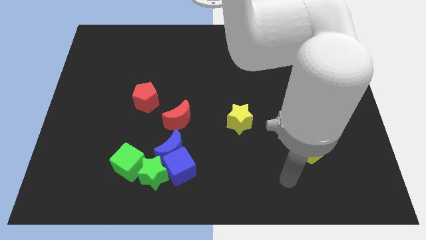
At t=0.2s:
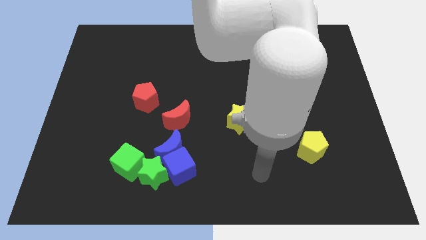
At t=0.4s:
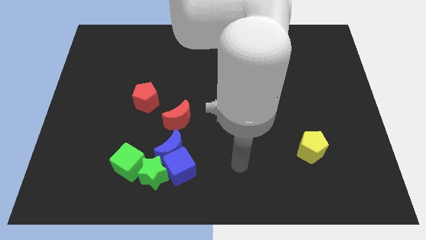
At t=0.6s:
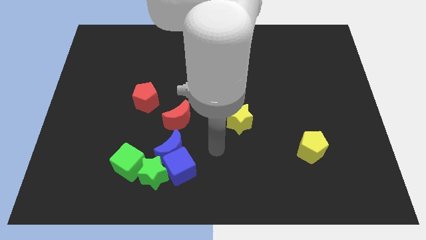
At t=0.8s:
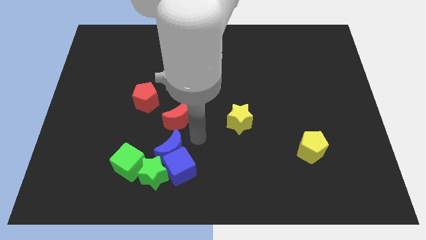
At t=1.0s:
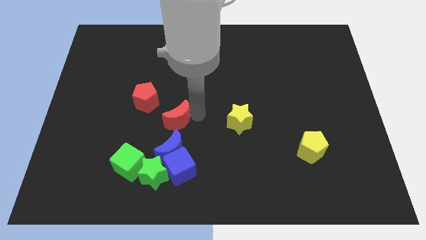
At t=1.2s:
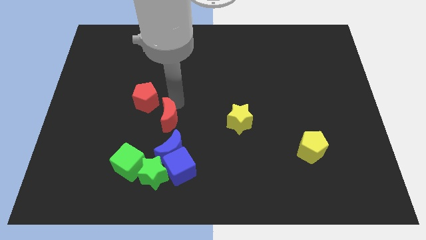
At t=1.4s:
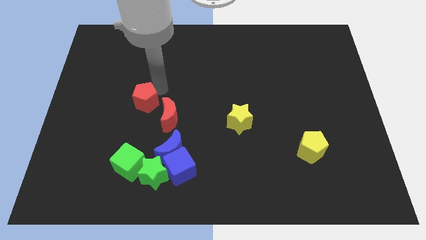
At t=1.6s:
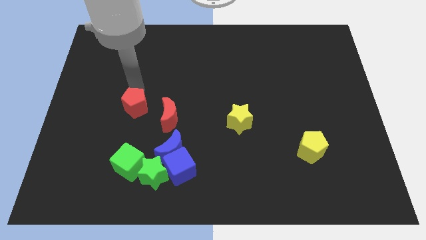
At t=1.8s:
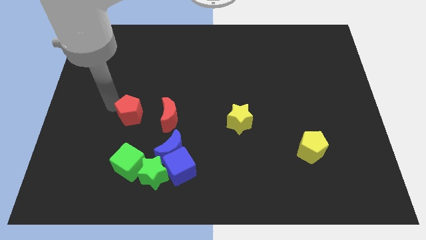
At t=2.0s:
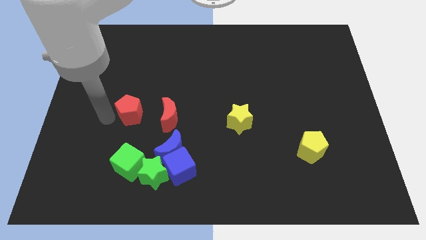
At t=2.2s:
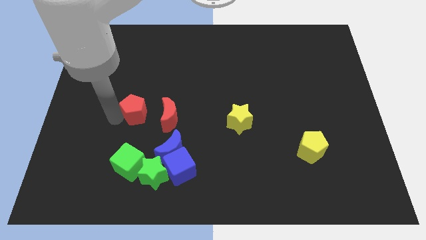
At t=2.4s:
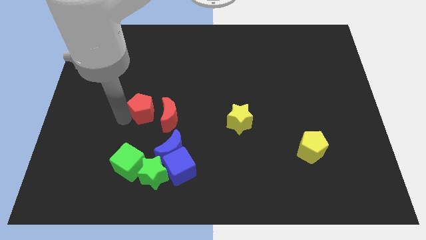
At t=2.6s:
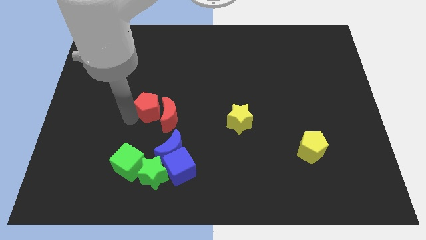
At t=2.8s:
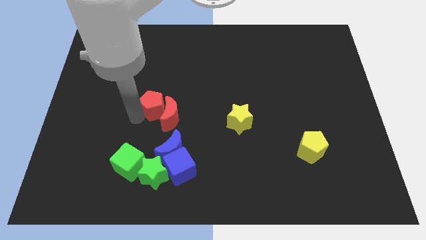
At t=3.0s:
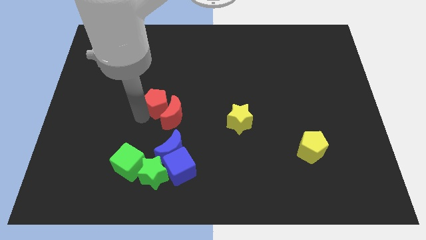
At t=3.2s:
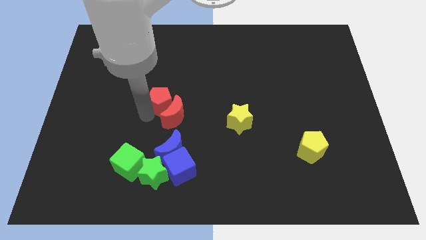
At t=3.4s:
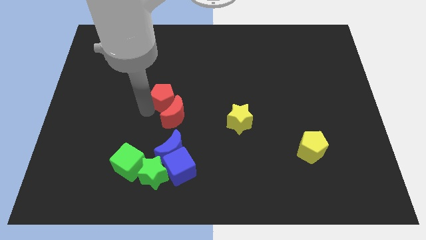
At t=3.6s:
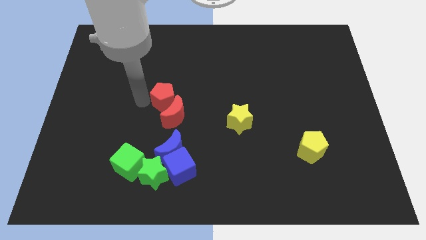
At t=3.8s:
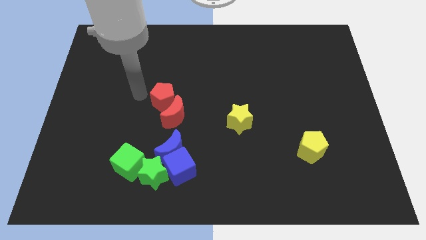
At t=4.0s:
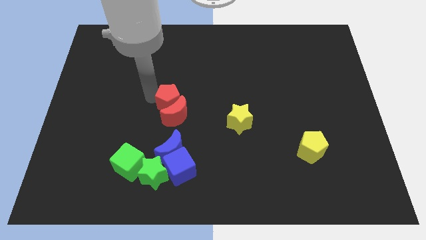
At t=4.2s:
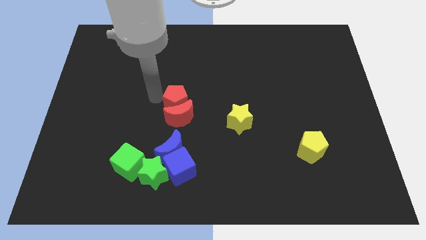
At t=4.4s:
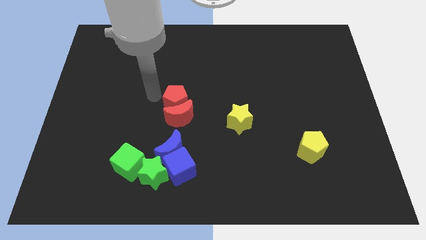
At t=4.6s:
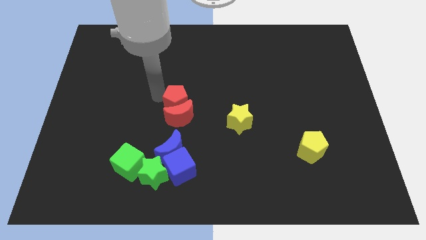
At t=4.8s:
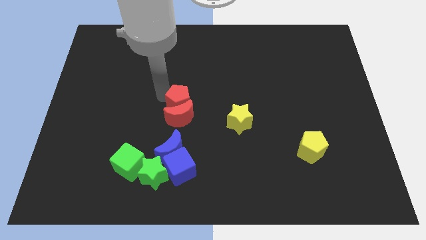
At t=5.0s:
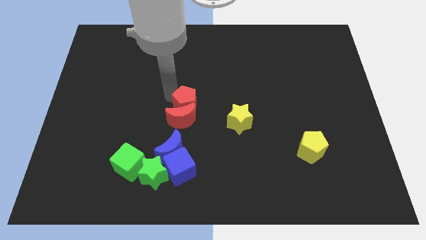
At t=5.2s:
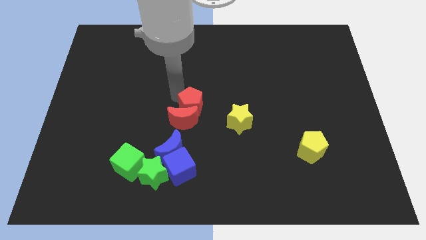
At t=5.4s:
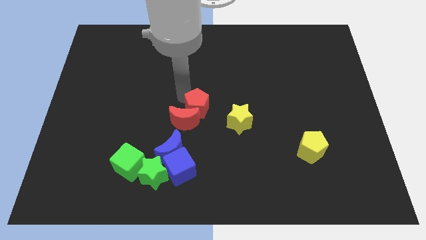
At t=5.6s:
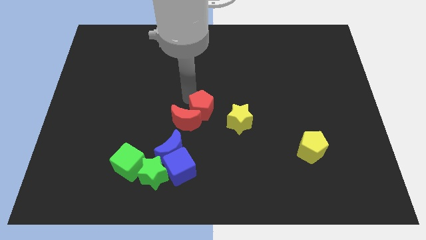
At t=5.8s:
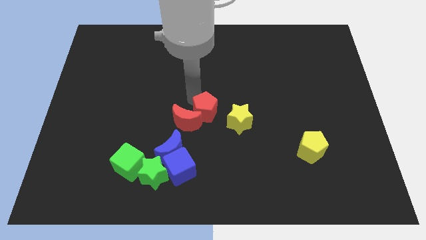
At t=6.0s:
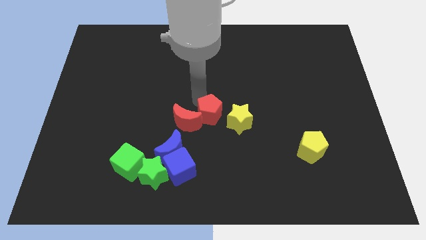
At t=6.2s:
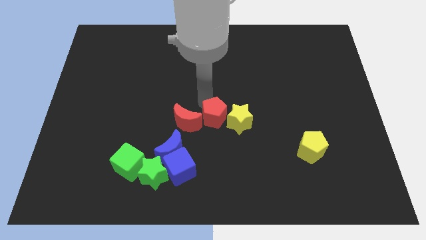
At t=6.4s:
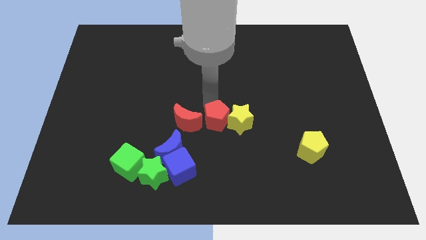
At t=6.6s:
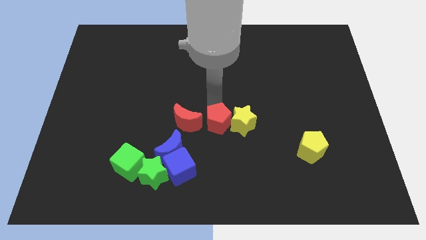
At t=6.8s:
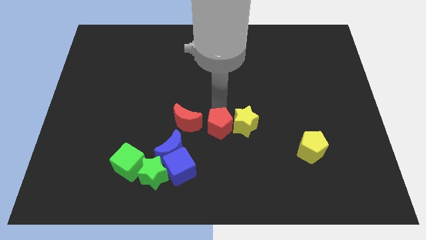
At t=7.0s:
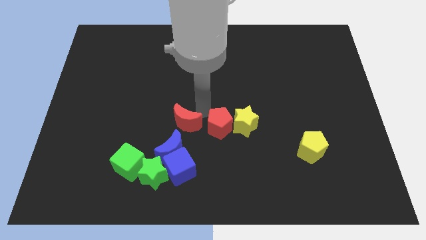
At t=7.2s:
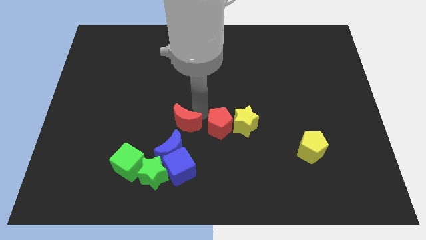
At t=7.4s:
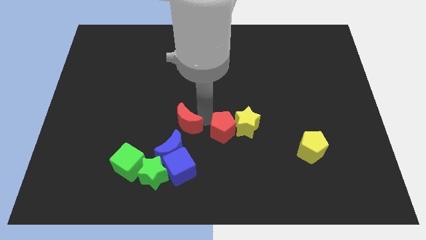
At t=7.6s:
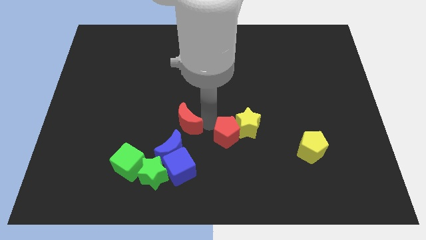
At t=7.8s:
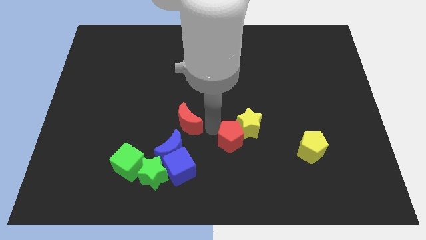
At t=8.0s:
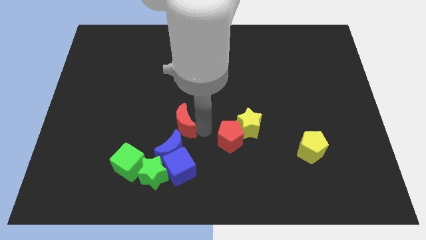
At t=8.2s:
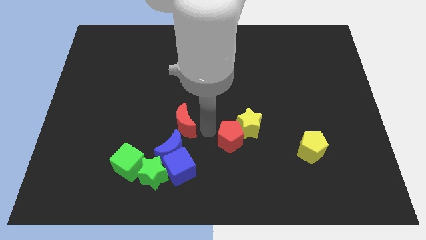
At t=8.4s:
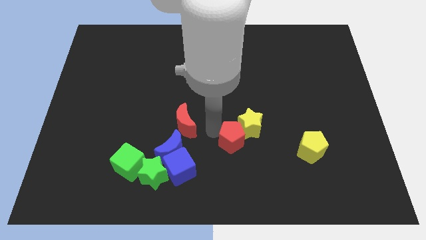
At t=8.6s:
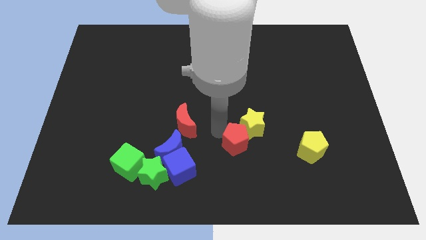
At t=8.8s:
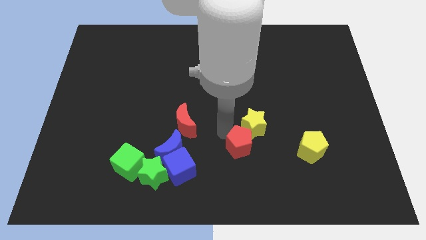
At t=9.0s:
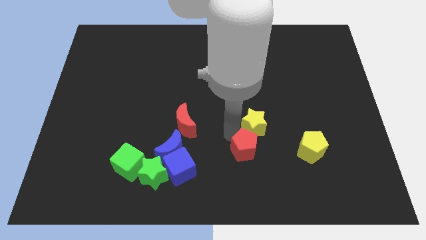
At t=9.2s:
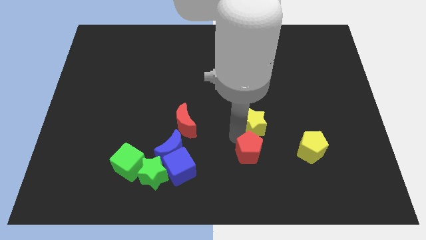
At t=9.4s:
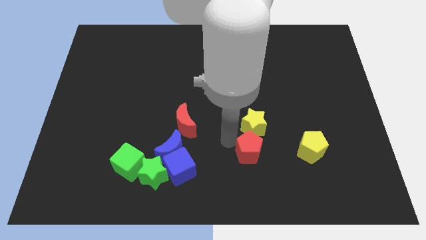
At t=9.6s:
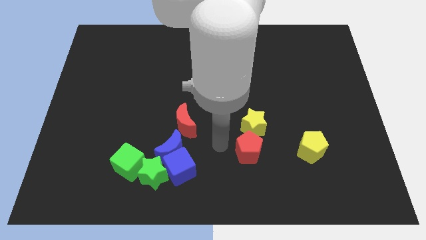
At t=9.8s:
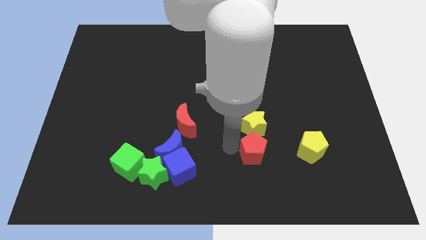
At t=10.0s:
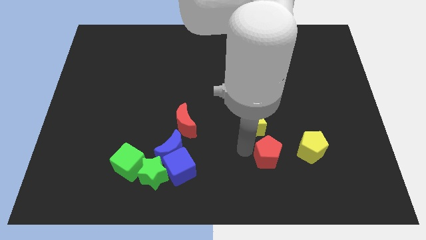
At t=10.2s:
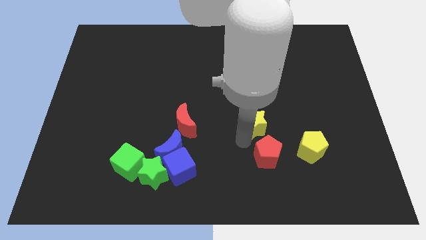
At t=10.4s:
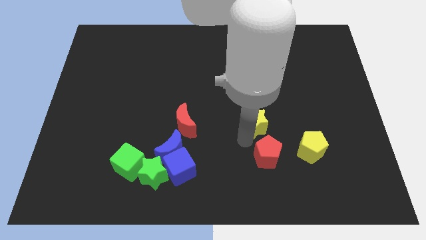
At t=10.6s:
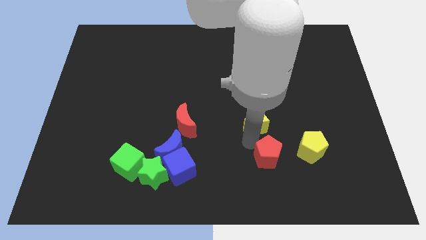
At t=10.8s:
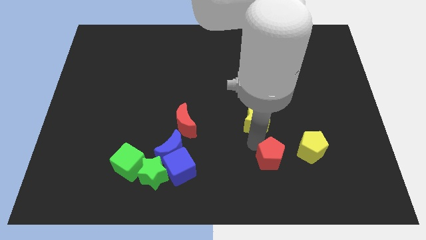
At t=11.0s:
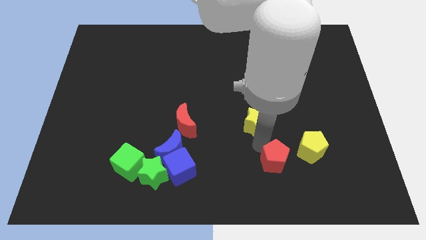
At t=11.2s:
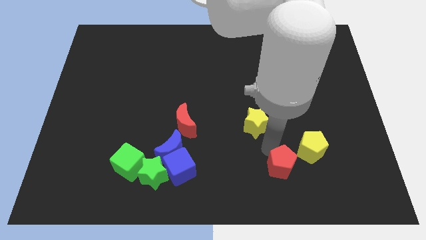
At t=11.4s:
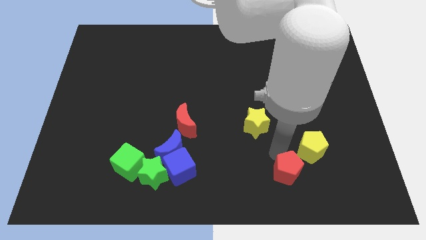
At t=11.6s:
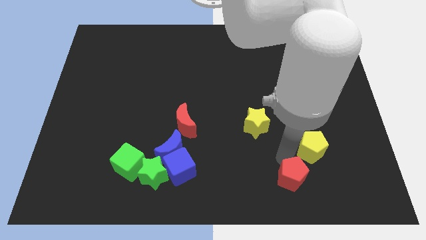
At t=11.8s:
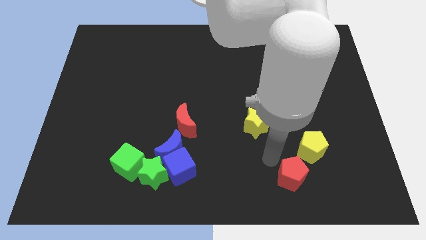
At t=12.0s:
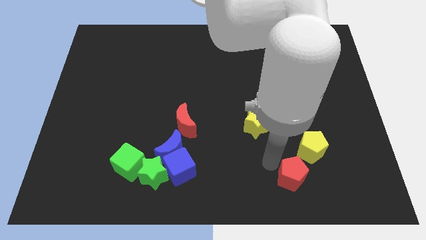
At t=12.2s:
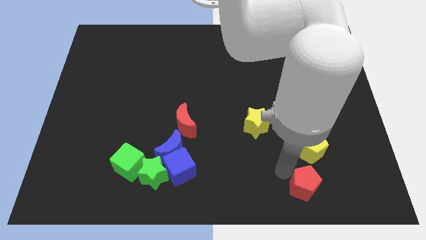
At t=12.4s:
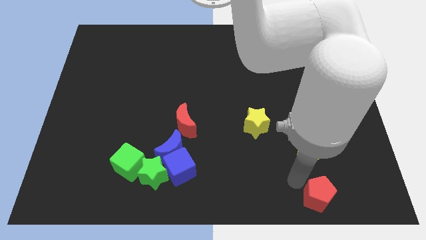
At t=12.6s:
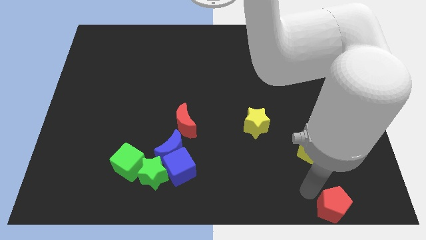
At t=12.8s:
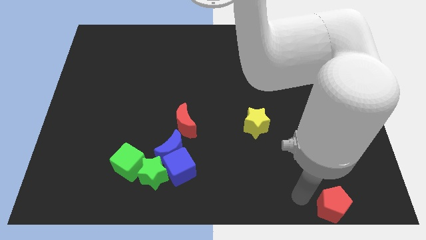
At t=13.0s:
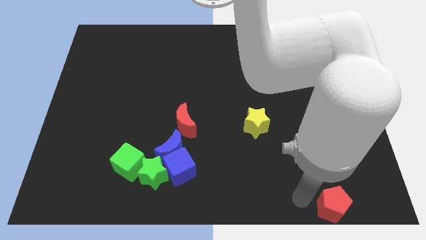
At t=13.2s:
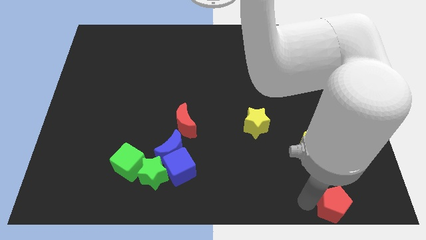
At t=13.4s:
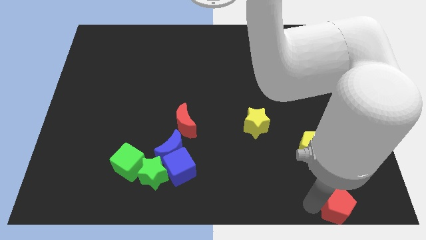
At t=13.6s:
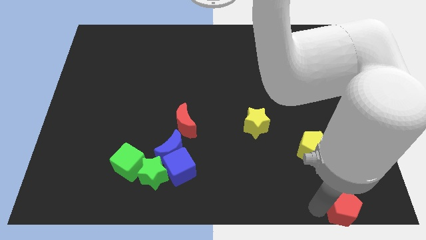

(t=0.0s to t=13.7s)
move the red pentagon to the lower right corner
